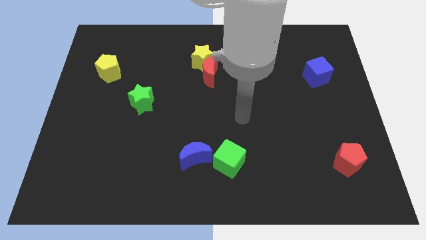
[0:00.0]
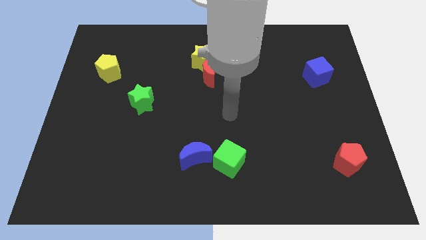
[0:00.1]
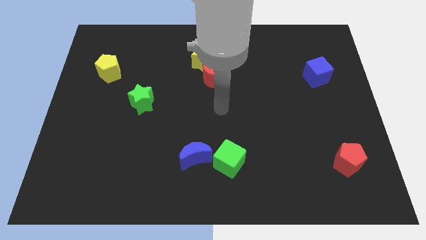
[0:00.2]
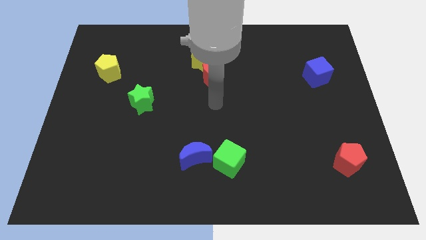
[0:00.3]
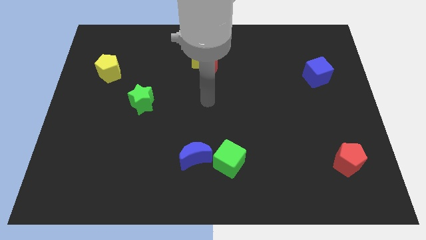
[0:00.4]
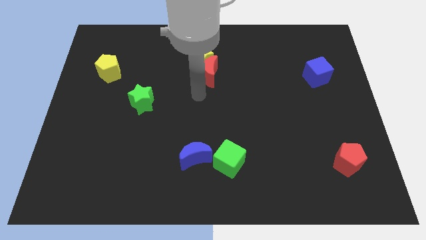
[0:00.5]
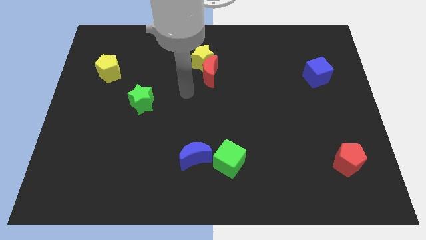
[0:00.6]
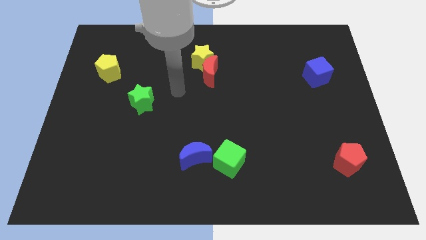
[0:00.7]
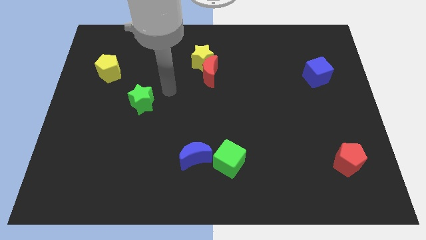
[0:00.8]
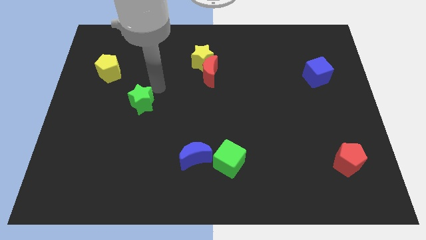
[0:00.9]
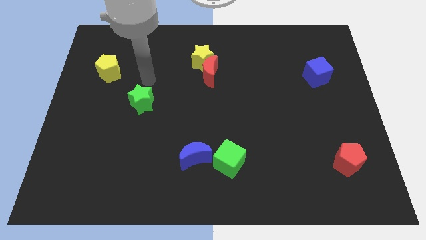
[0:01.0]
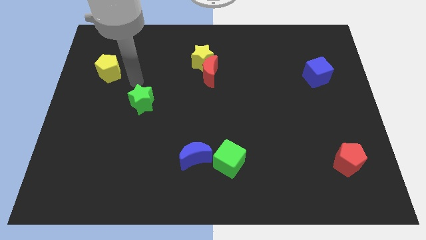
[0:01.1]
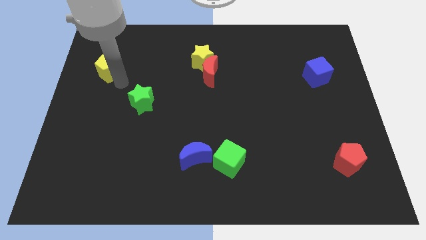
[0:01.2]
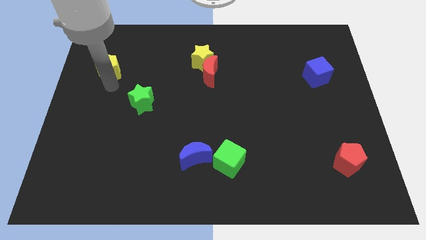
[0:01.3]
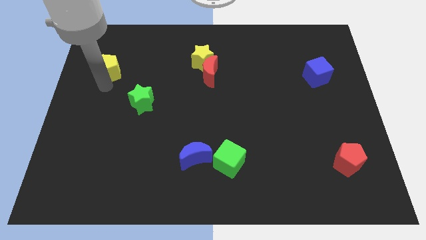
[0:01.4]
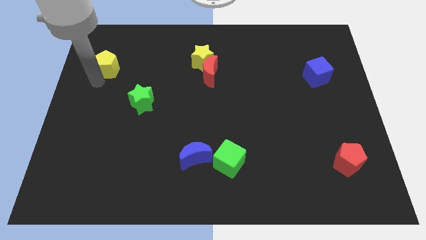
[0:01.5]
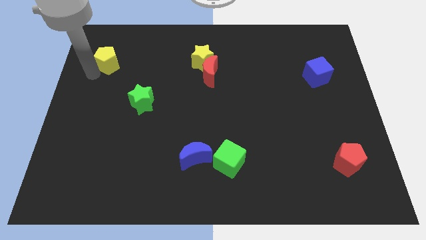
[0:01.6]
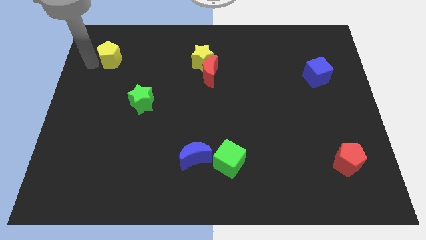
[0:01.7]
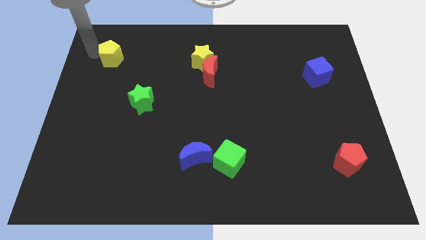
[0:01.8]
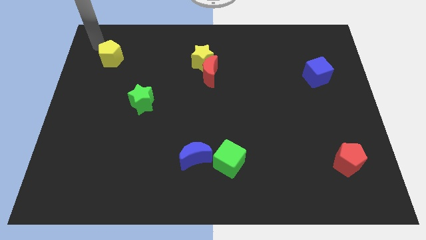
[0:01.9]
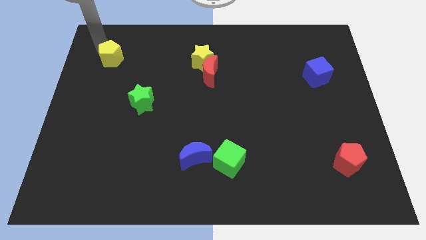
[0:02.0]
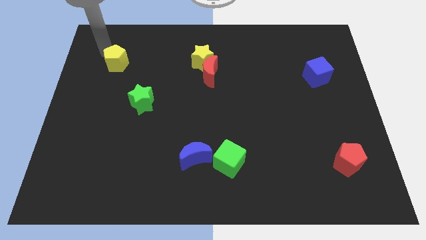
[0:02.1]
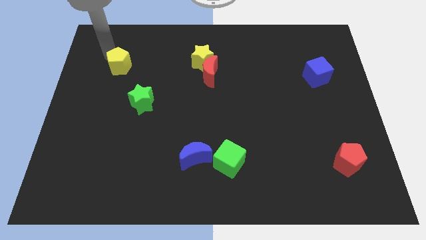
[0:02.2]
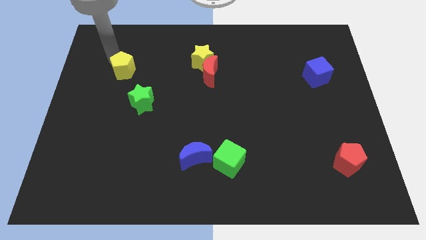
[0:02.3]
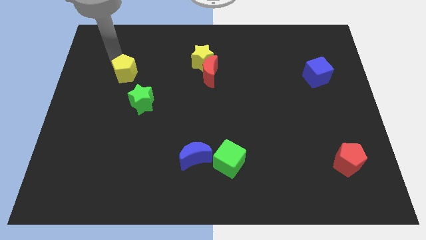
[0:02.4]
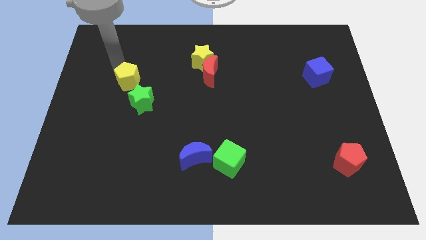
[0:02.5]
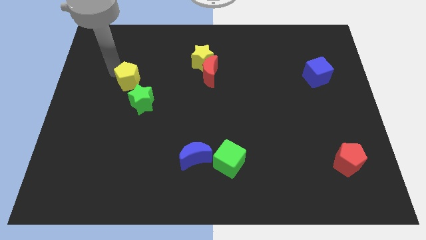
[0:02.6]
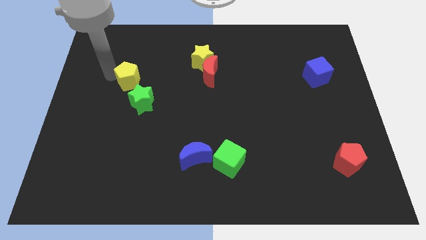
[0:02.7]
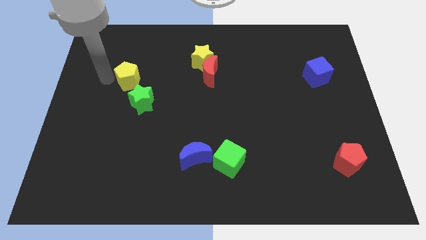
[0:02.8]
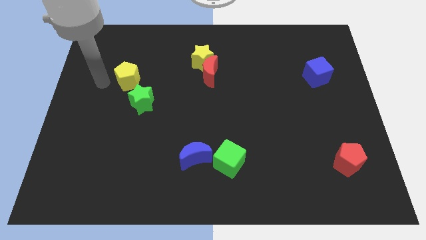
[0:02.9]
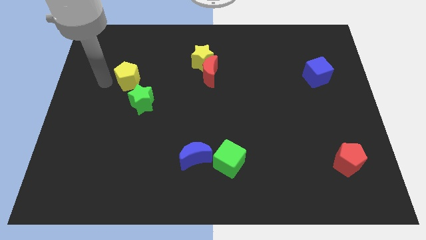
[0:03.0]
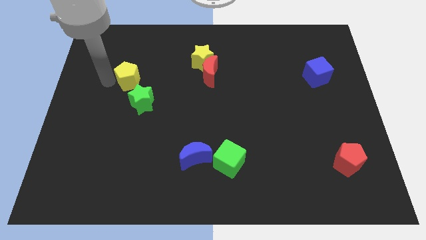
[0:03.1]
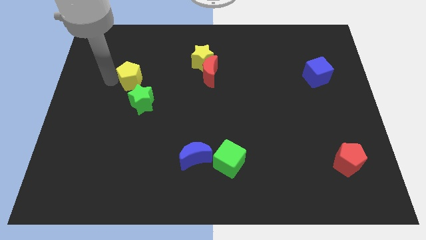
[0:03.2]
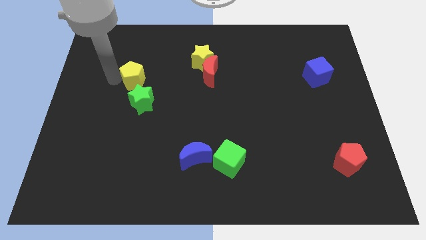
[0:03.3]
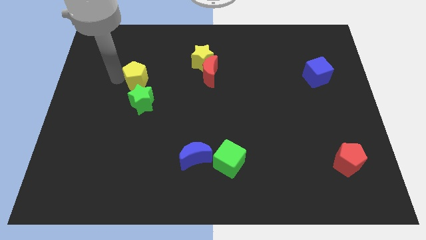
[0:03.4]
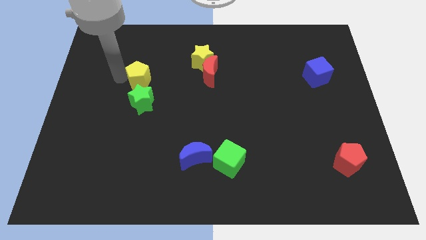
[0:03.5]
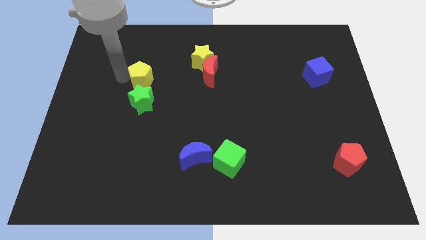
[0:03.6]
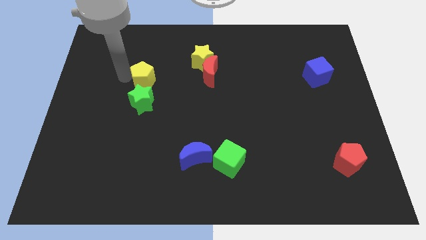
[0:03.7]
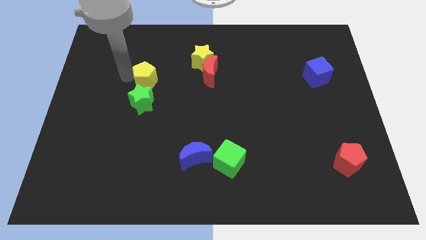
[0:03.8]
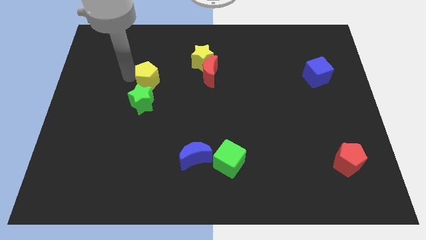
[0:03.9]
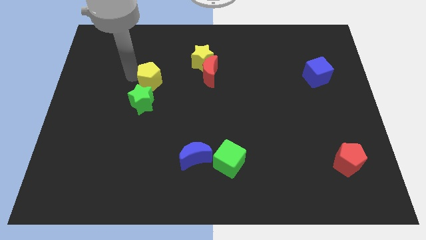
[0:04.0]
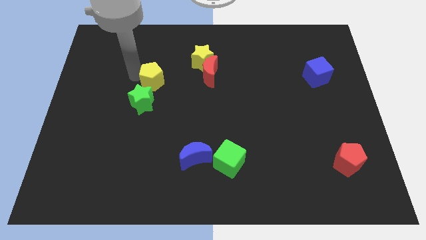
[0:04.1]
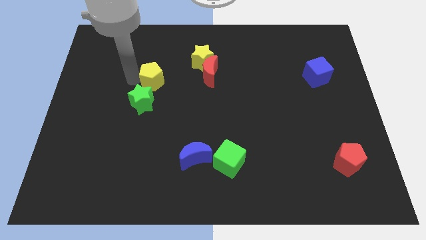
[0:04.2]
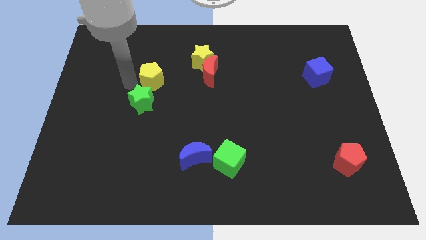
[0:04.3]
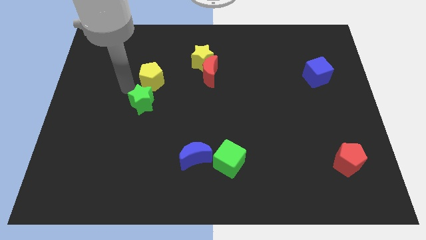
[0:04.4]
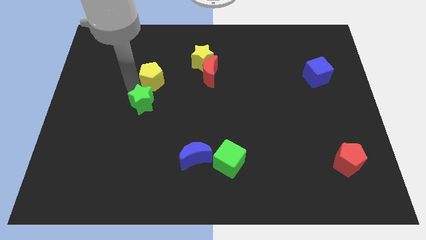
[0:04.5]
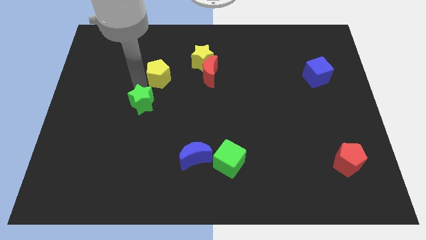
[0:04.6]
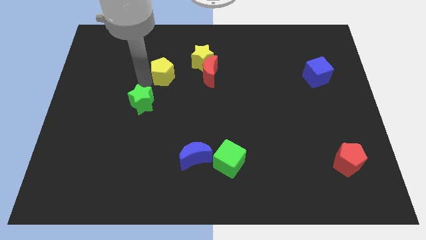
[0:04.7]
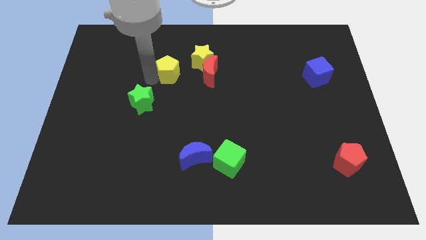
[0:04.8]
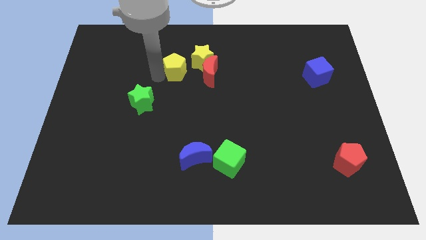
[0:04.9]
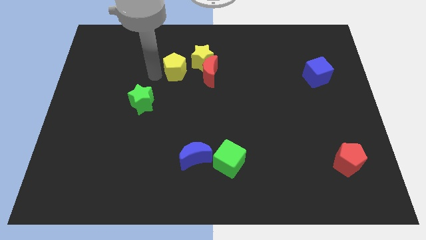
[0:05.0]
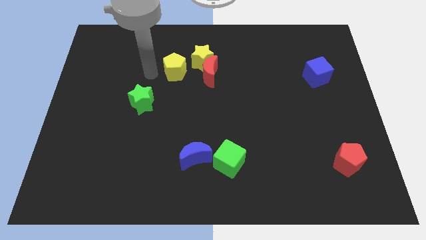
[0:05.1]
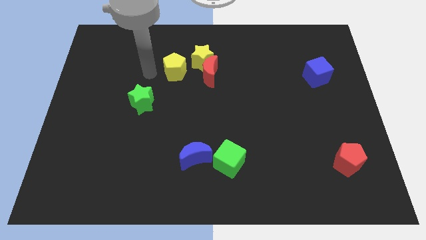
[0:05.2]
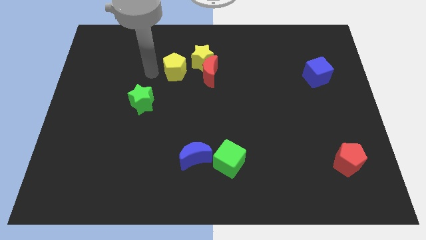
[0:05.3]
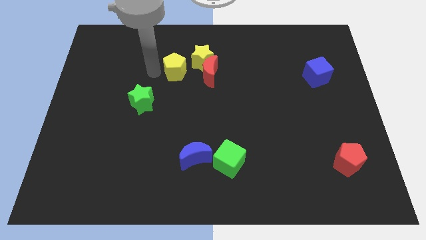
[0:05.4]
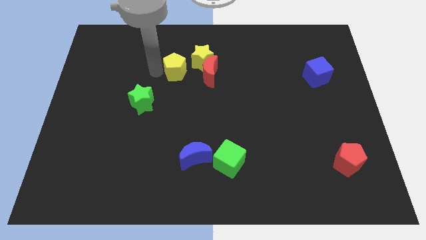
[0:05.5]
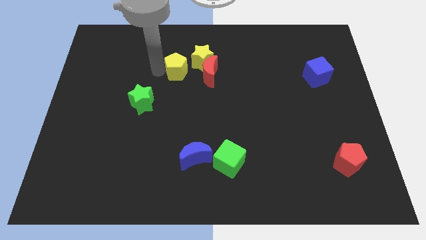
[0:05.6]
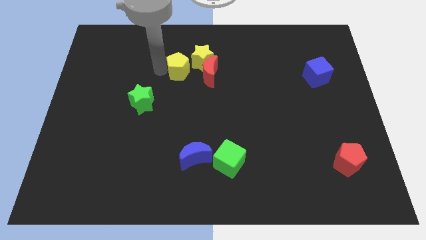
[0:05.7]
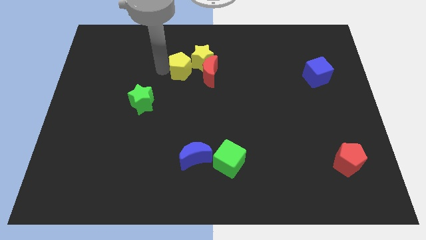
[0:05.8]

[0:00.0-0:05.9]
put the yellow pentagon towards the yellow star

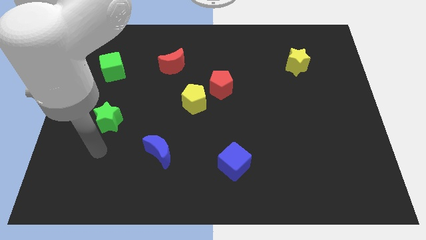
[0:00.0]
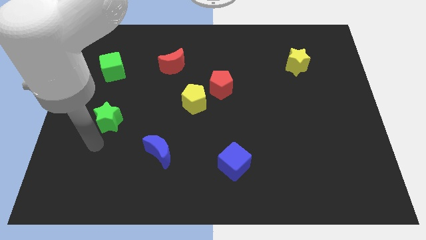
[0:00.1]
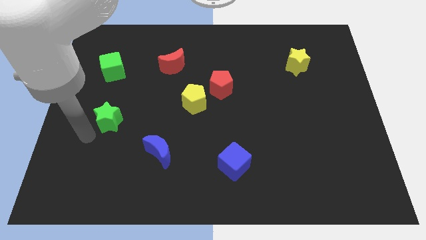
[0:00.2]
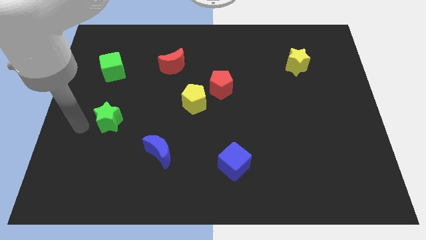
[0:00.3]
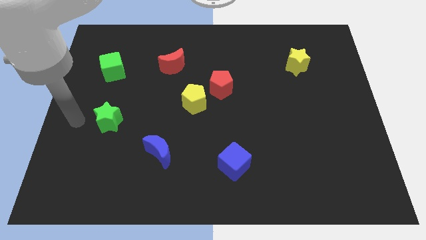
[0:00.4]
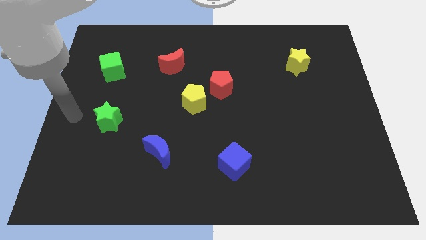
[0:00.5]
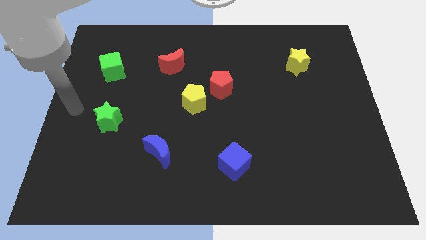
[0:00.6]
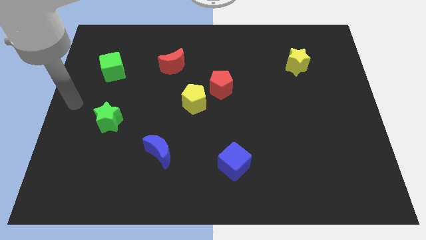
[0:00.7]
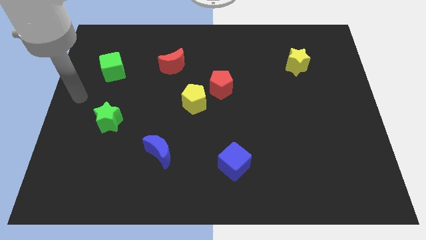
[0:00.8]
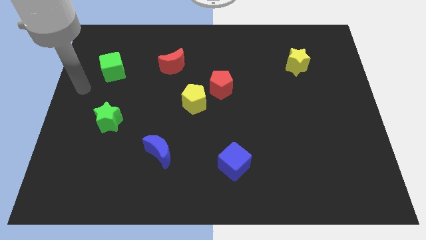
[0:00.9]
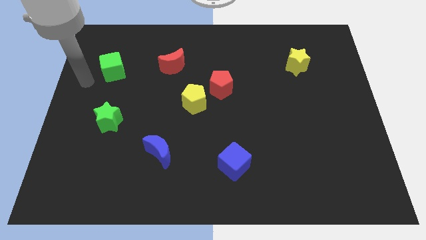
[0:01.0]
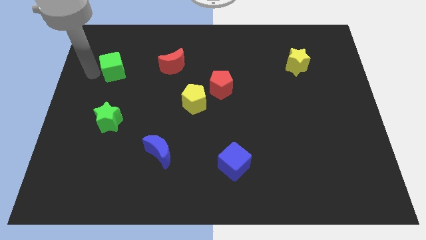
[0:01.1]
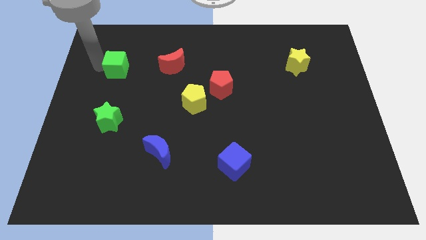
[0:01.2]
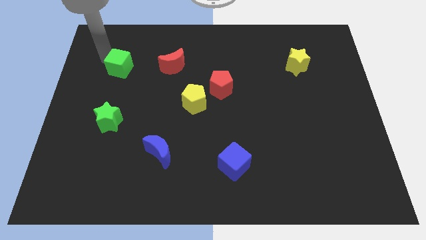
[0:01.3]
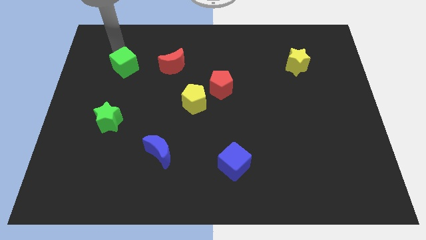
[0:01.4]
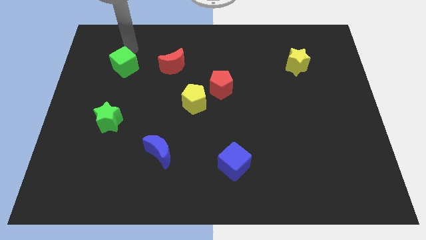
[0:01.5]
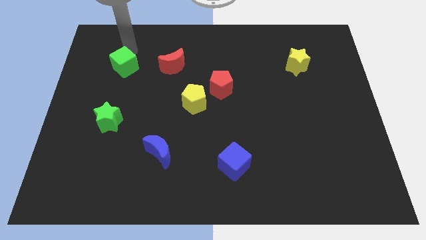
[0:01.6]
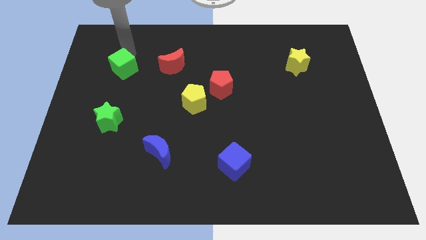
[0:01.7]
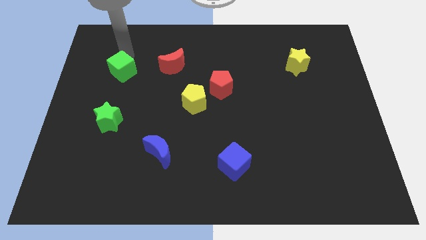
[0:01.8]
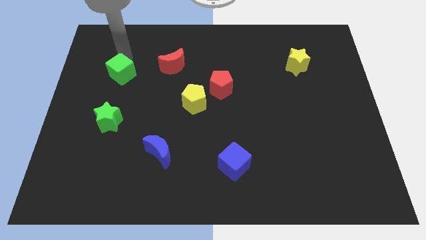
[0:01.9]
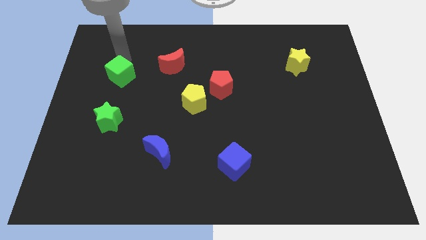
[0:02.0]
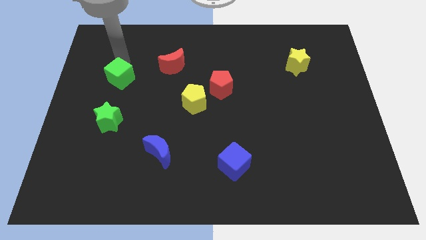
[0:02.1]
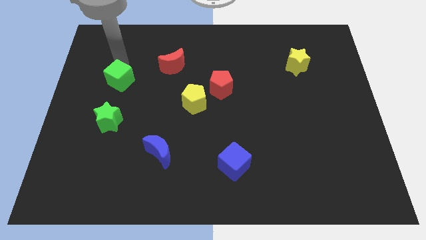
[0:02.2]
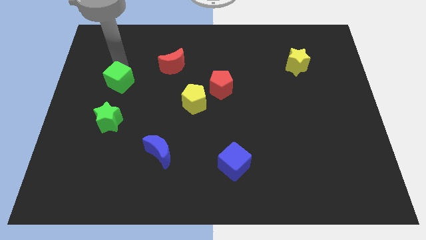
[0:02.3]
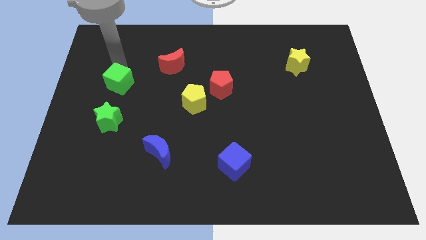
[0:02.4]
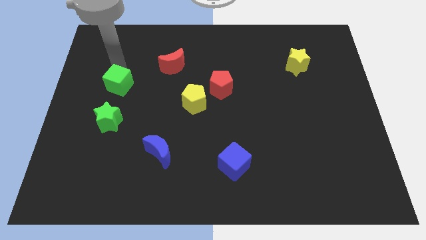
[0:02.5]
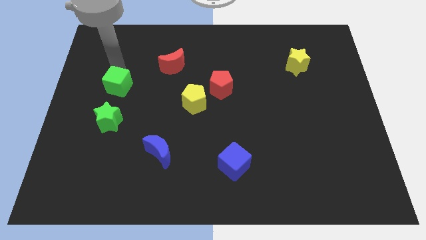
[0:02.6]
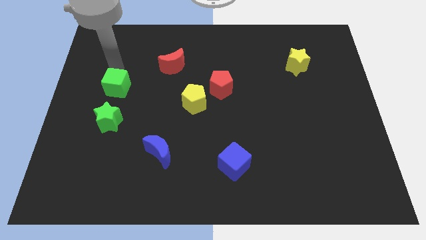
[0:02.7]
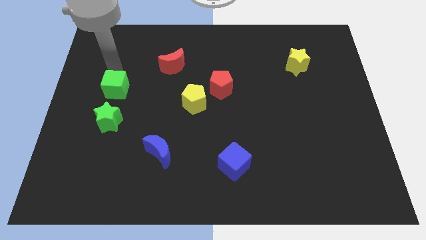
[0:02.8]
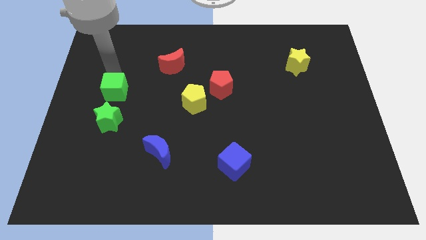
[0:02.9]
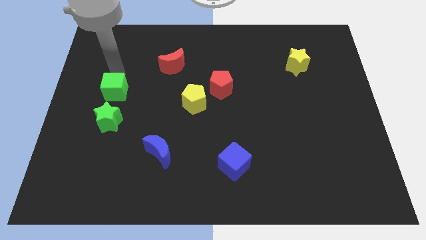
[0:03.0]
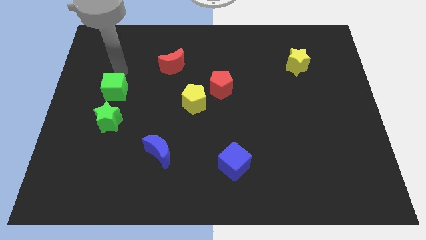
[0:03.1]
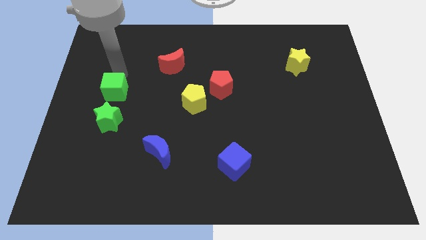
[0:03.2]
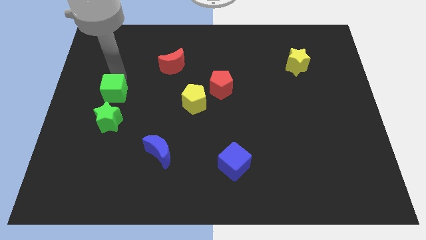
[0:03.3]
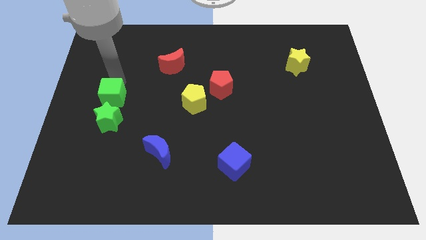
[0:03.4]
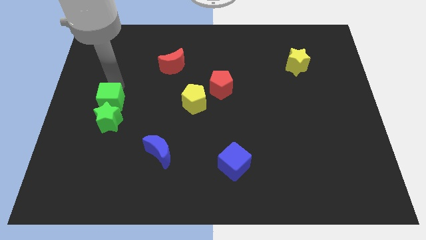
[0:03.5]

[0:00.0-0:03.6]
move the green cube close to the green star
